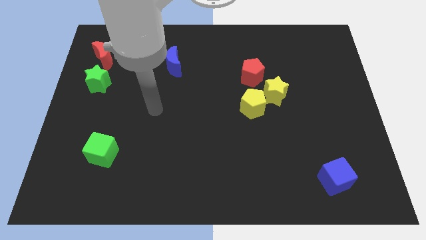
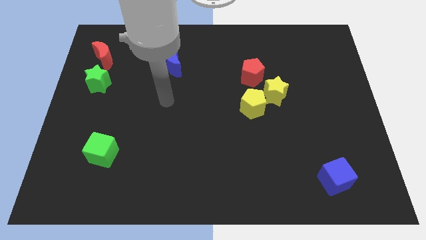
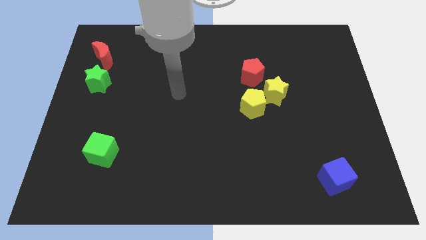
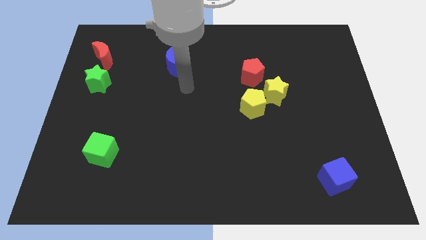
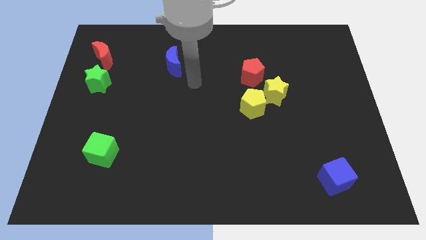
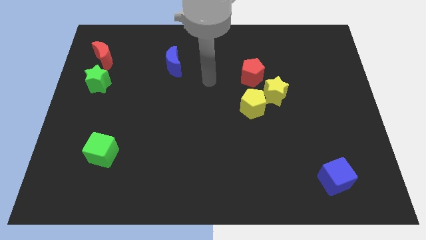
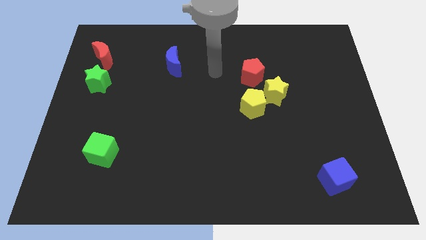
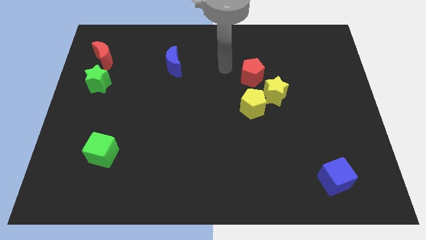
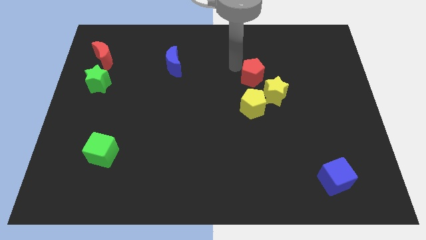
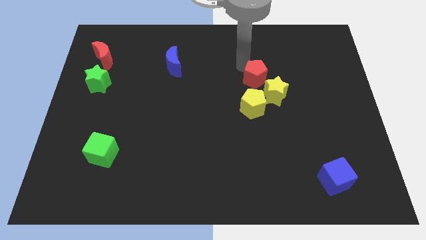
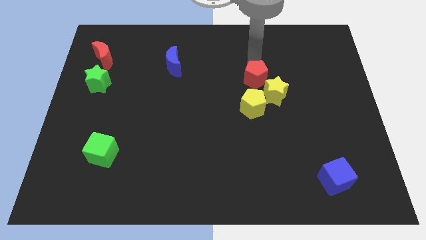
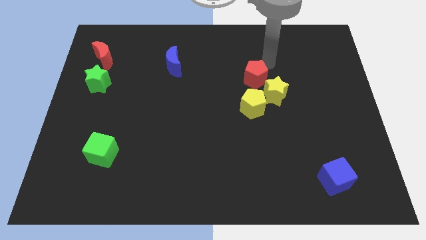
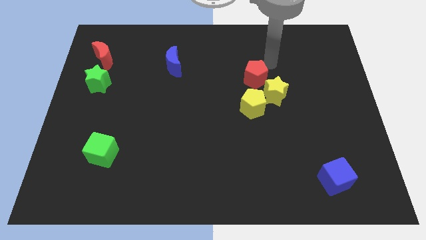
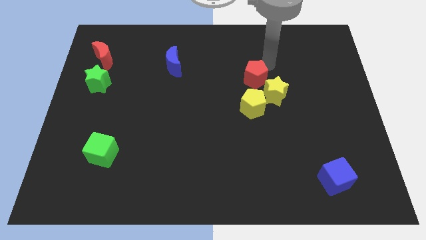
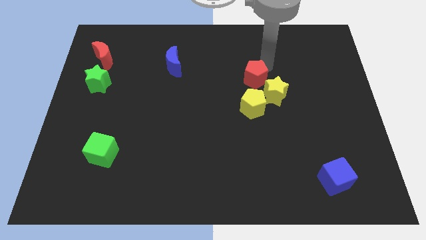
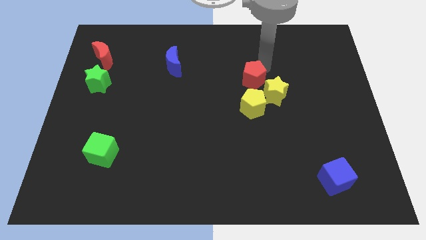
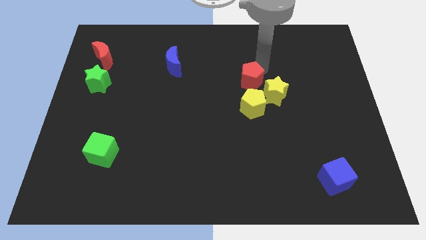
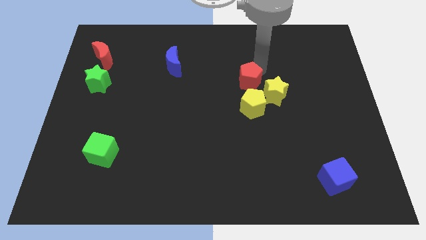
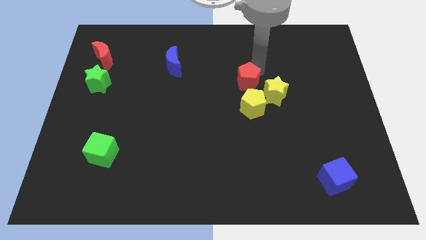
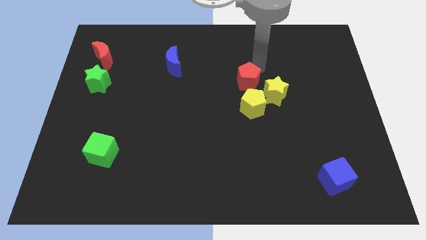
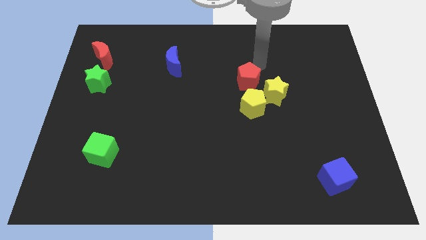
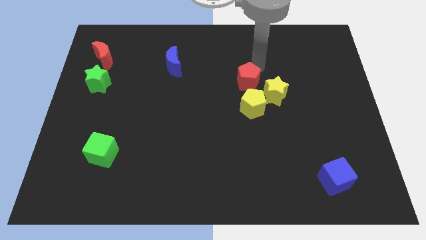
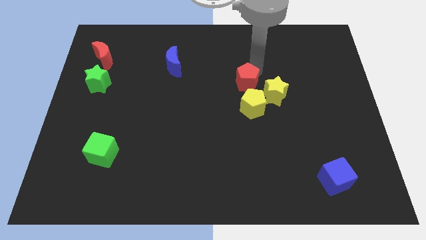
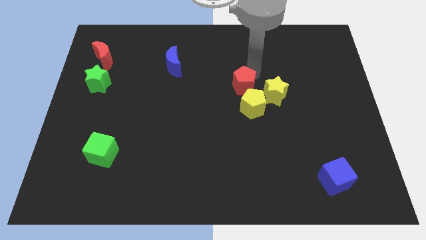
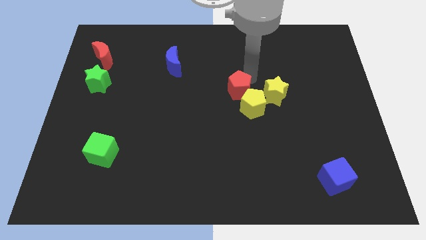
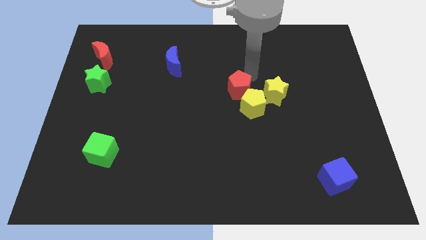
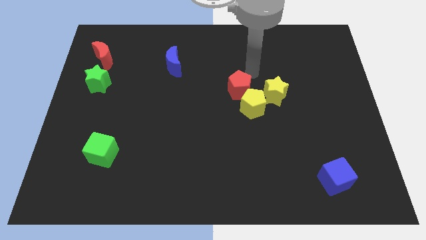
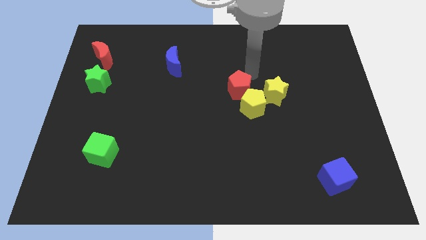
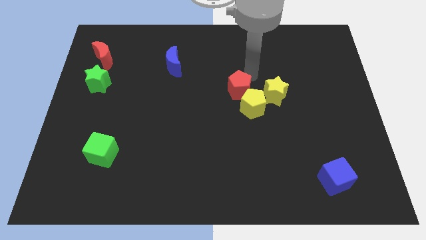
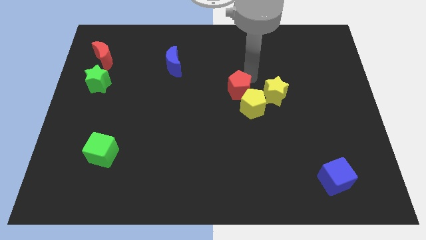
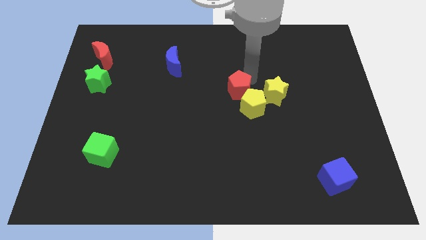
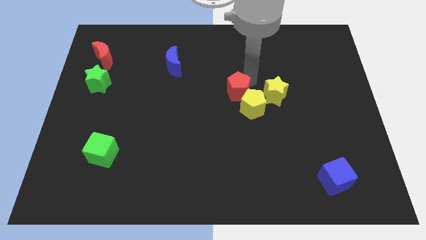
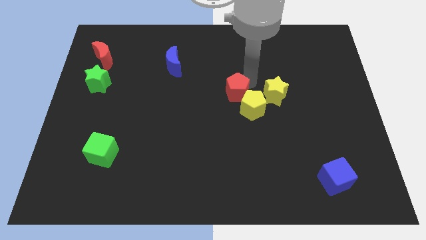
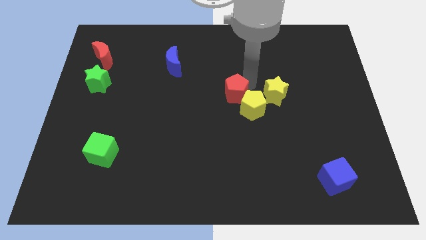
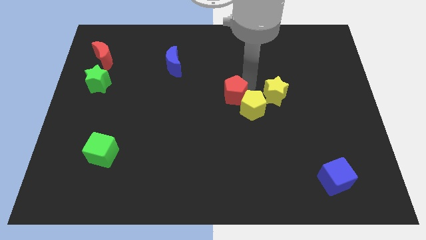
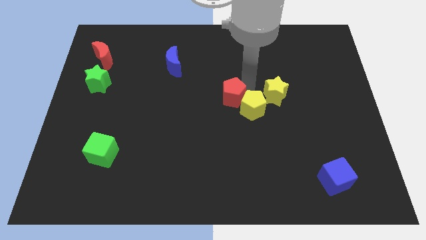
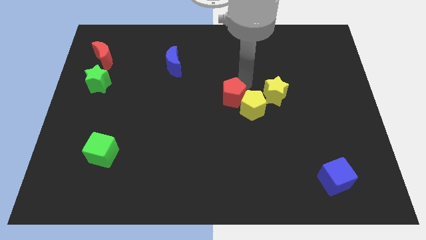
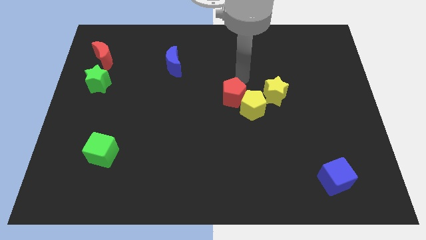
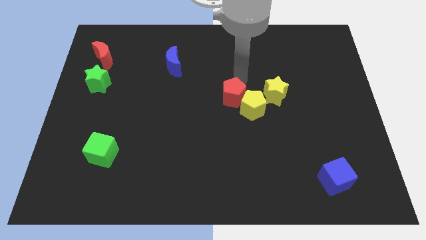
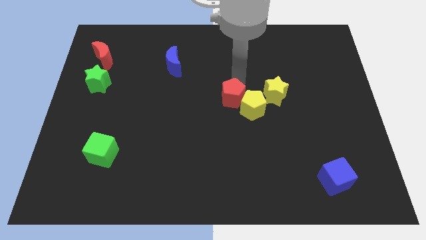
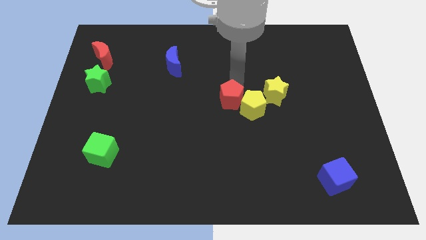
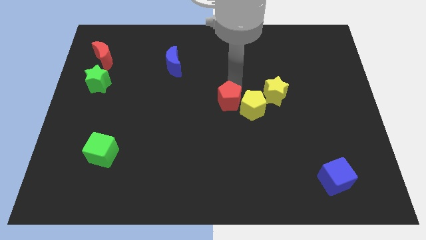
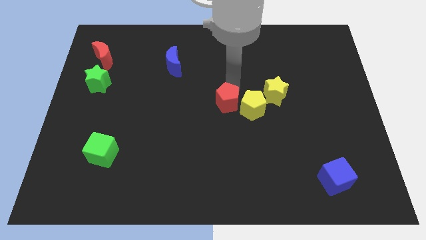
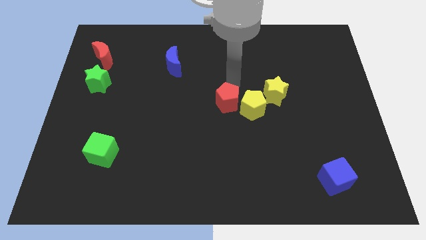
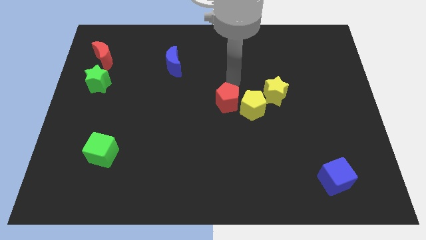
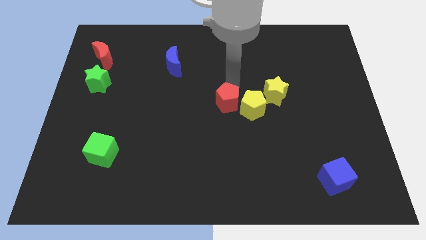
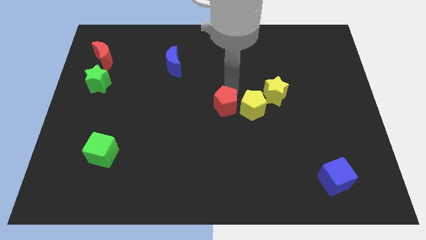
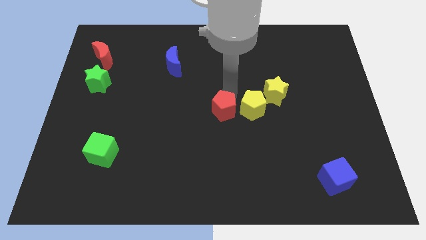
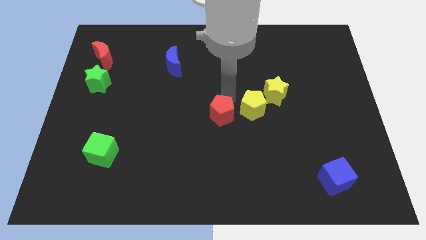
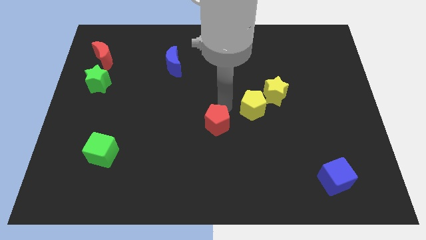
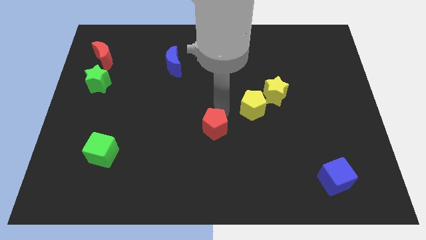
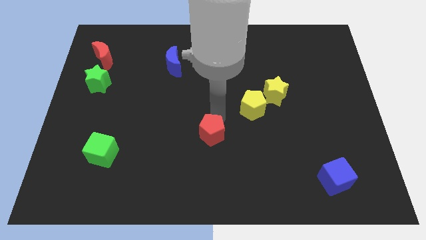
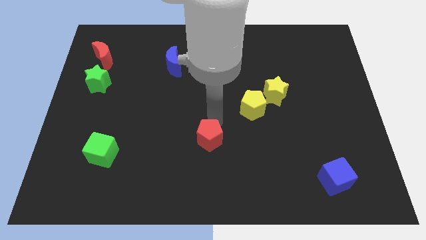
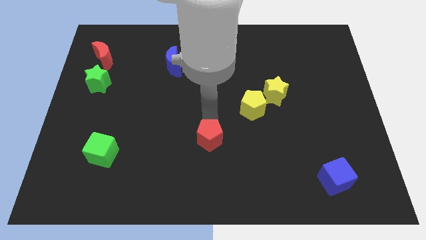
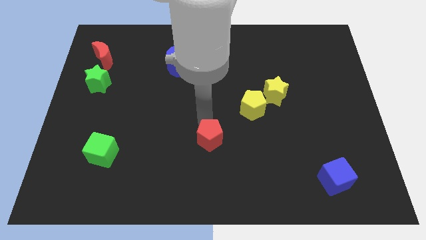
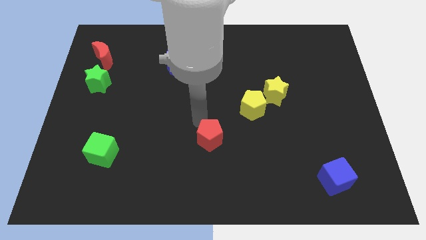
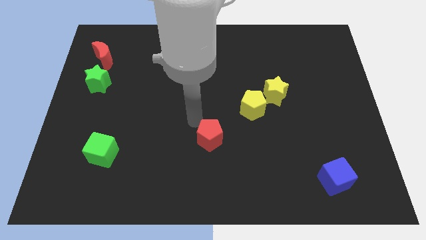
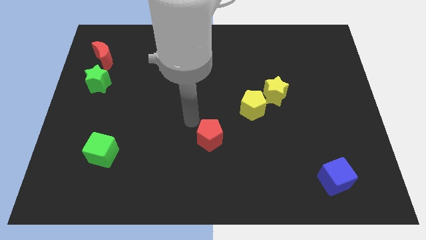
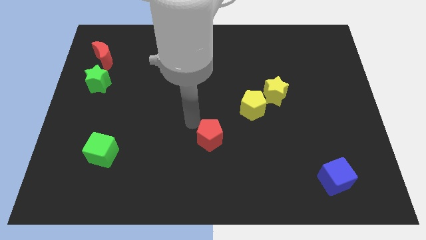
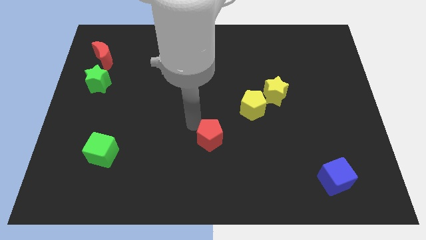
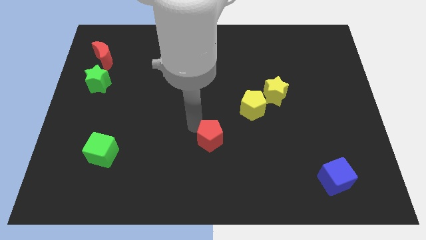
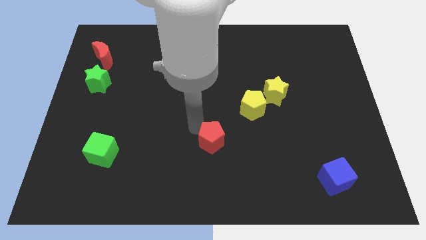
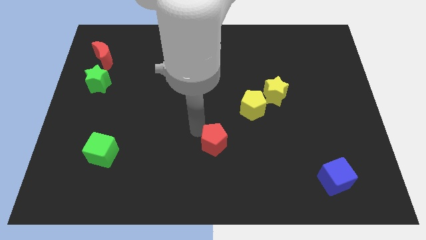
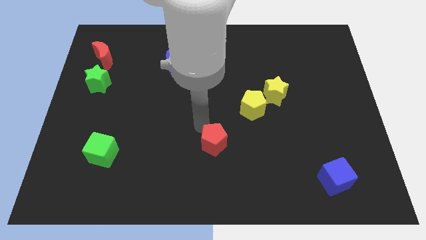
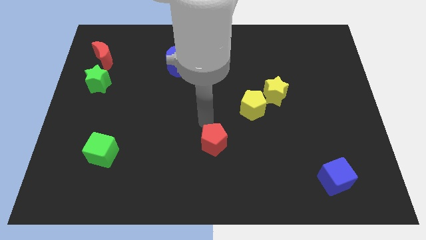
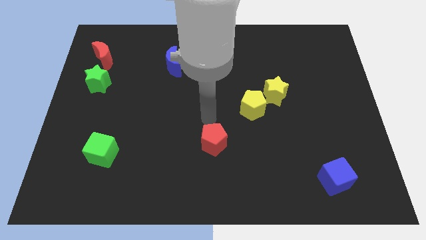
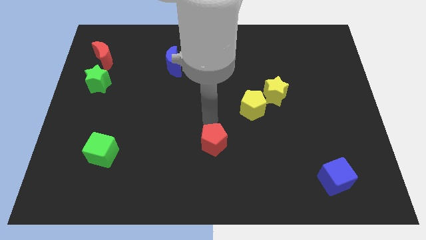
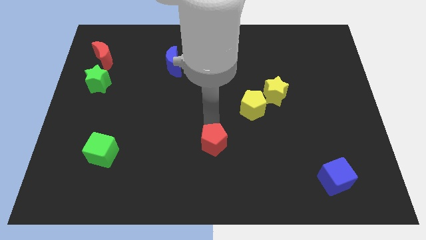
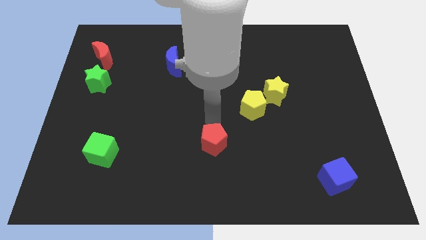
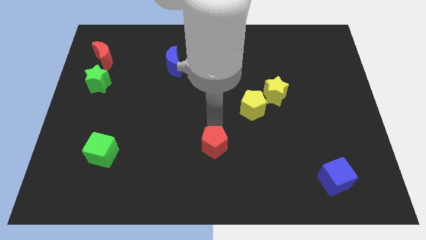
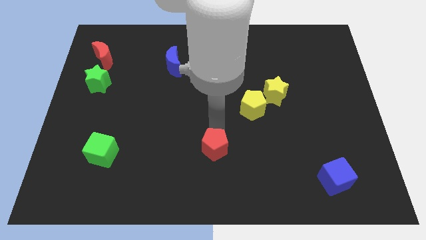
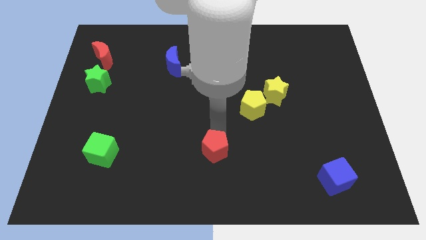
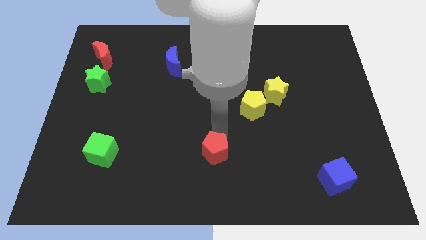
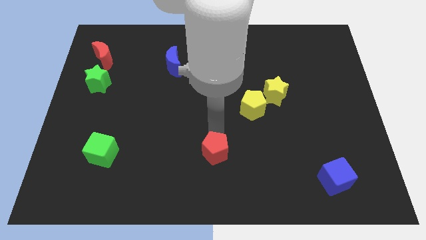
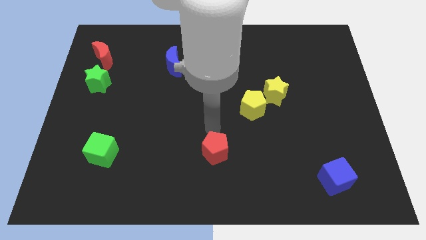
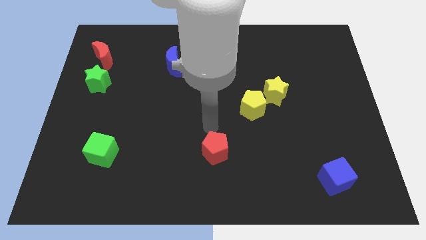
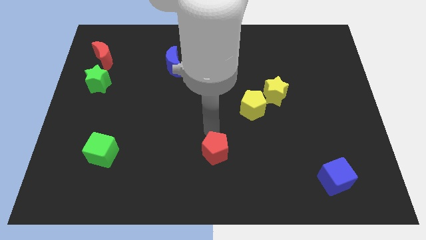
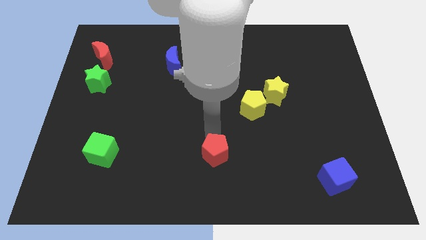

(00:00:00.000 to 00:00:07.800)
slide the red pentagon to the bottom
